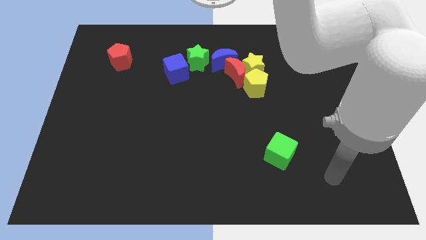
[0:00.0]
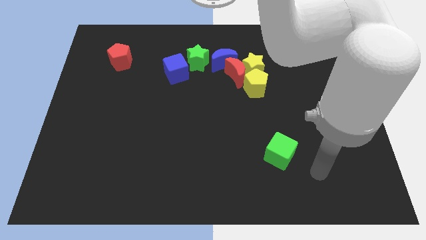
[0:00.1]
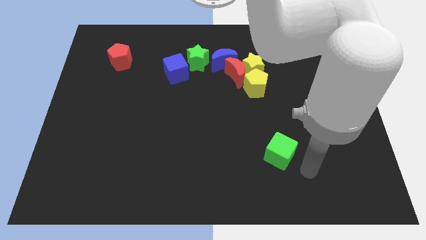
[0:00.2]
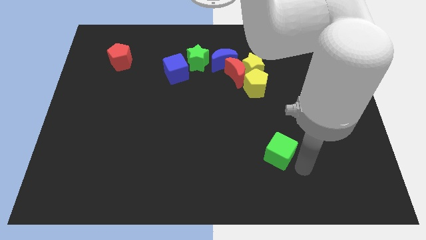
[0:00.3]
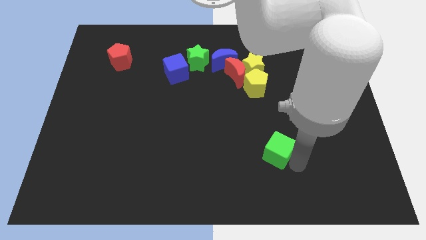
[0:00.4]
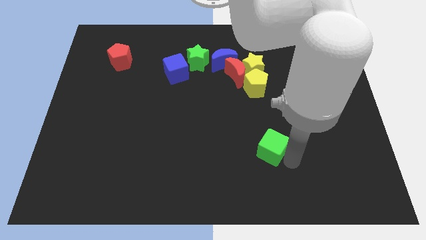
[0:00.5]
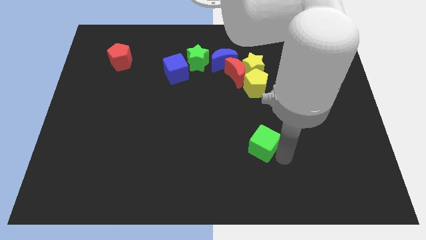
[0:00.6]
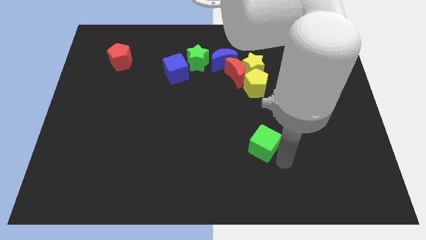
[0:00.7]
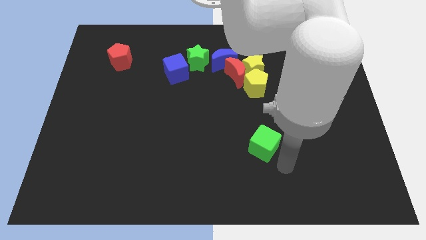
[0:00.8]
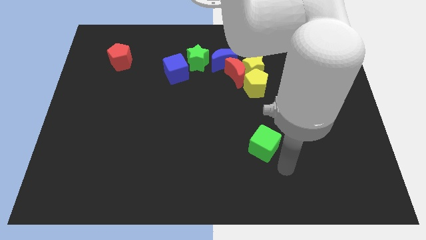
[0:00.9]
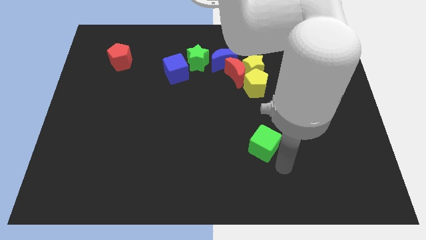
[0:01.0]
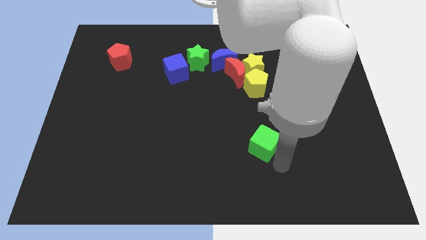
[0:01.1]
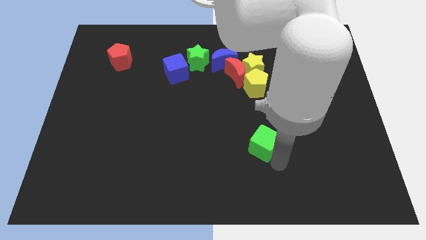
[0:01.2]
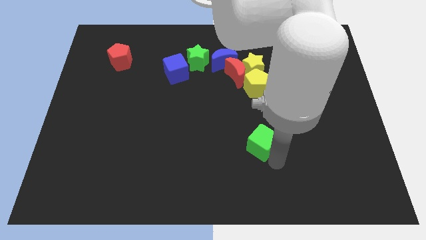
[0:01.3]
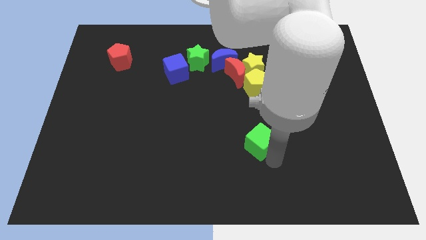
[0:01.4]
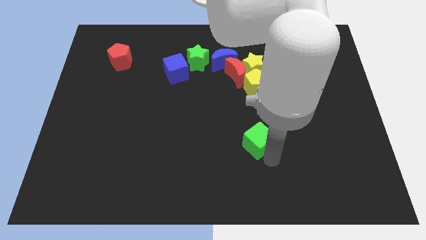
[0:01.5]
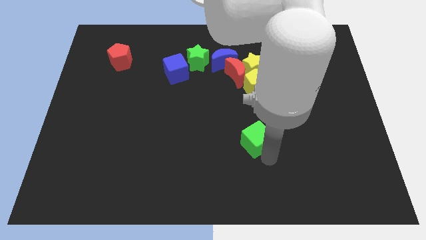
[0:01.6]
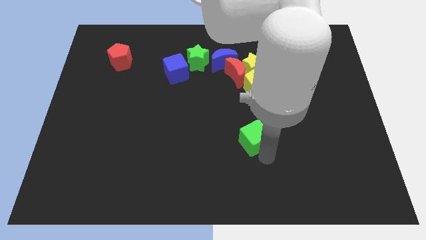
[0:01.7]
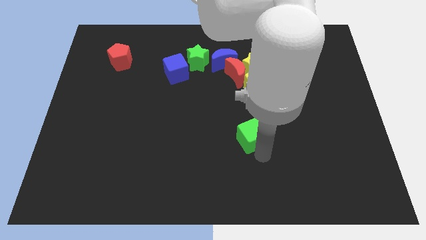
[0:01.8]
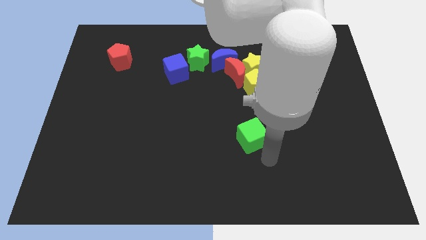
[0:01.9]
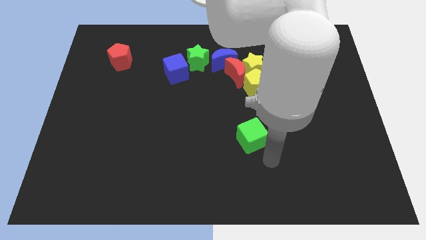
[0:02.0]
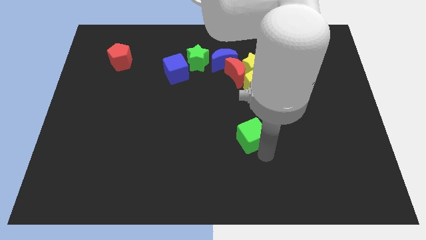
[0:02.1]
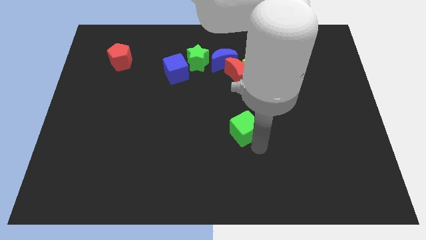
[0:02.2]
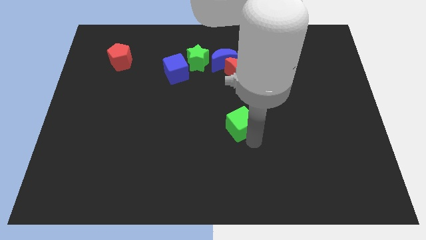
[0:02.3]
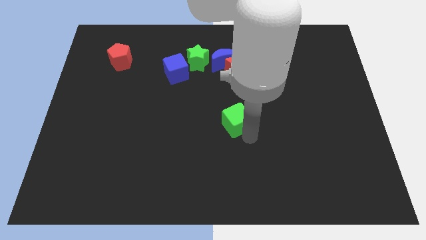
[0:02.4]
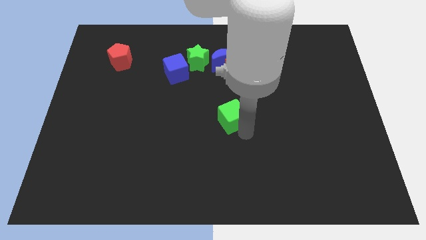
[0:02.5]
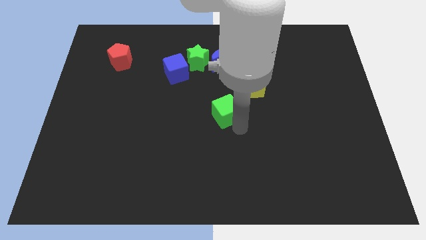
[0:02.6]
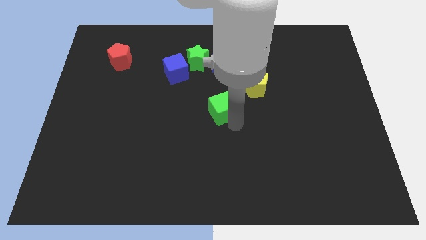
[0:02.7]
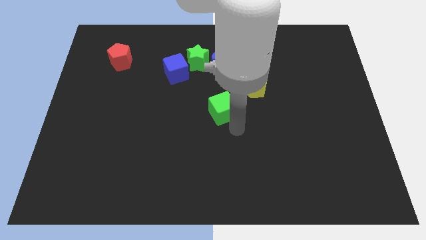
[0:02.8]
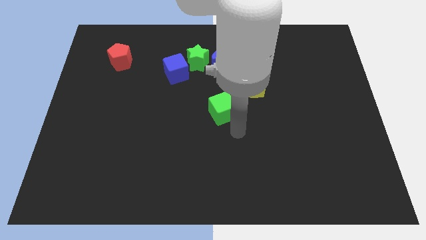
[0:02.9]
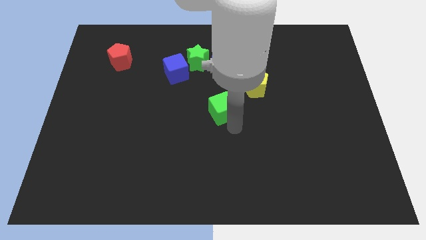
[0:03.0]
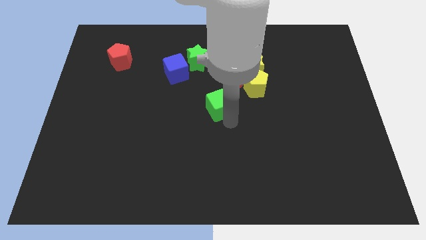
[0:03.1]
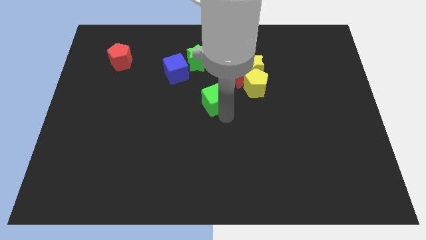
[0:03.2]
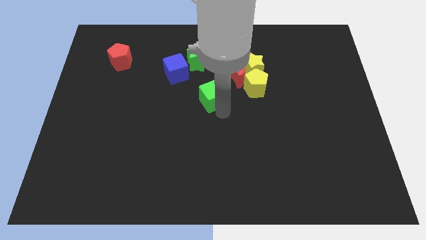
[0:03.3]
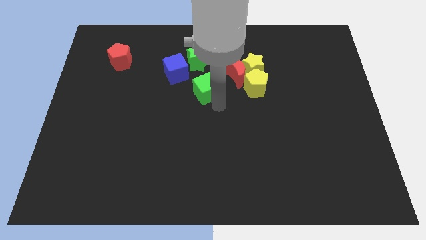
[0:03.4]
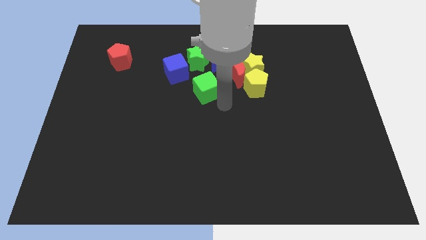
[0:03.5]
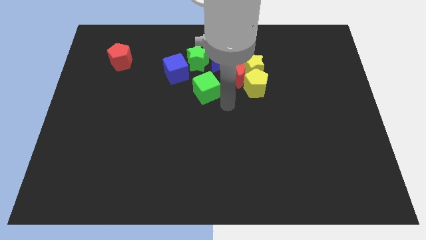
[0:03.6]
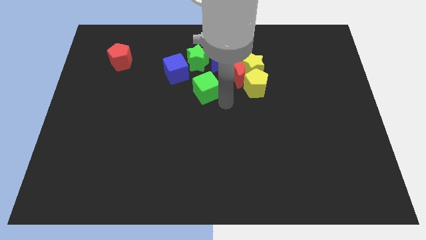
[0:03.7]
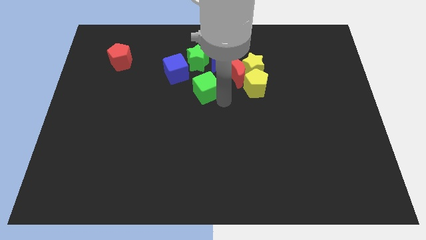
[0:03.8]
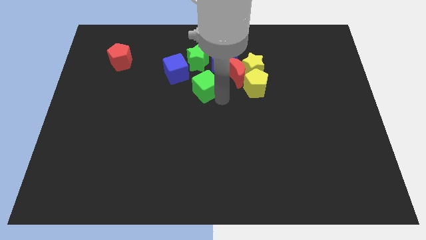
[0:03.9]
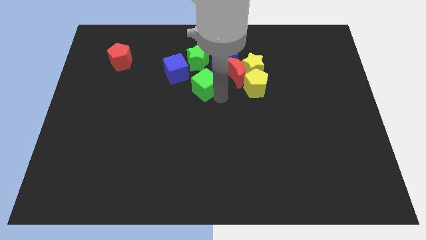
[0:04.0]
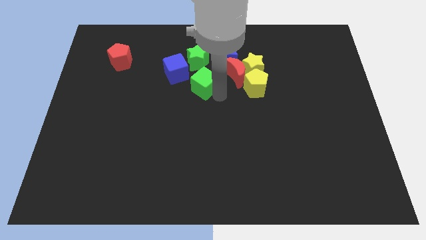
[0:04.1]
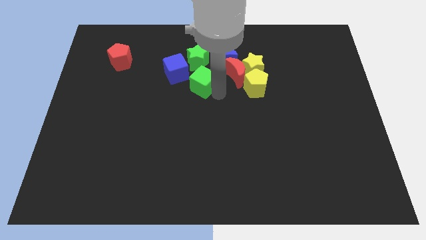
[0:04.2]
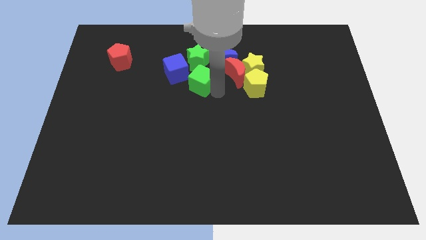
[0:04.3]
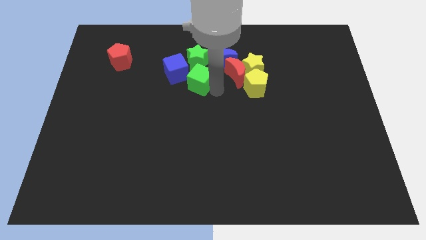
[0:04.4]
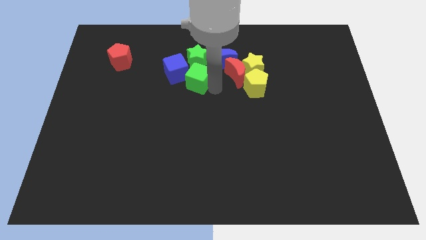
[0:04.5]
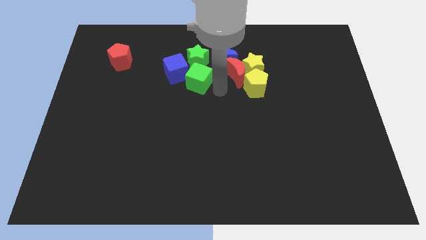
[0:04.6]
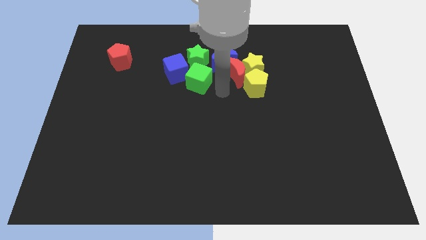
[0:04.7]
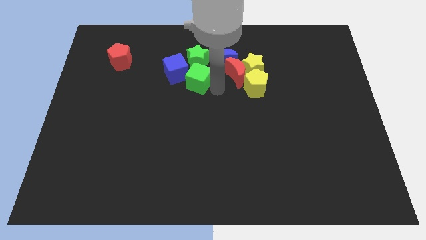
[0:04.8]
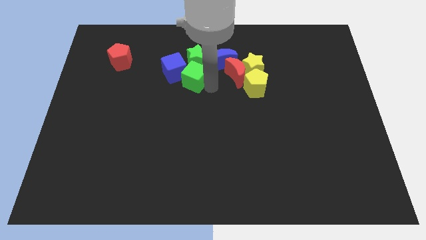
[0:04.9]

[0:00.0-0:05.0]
put the green cube close to the blue cube

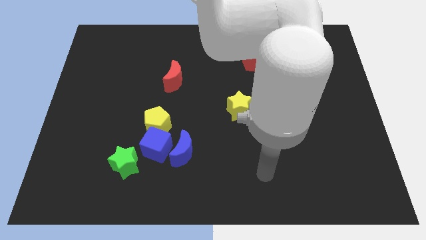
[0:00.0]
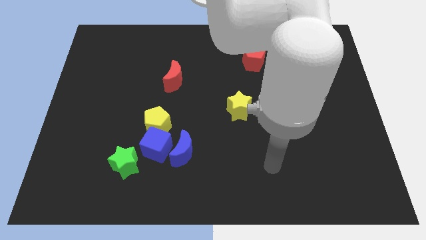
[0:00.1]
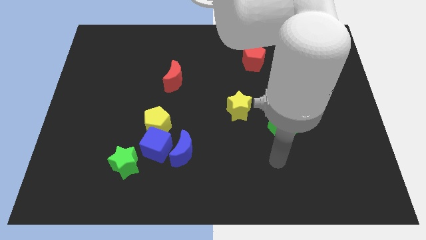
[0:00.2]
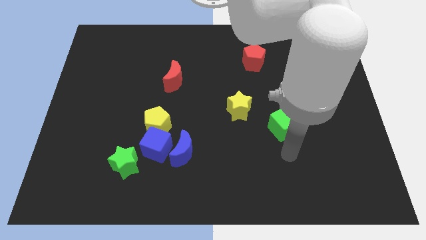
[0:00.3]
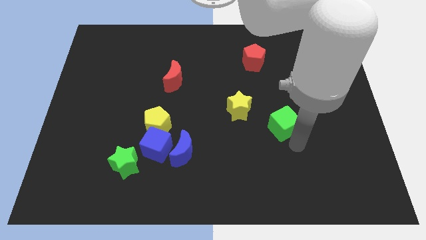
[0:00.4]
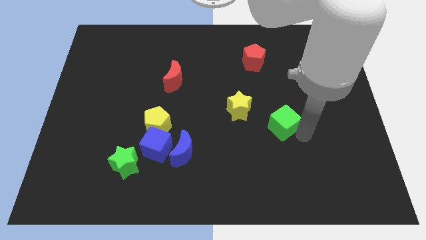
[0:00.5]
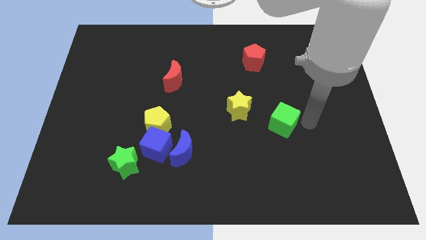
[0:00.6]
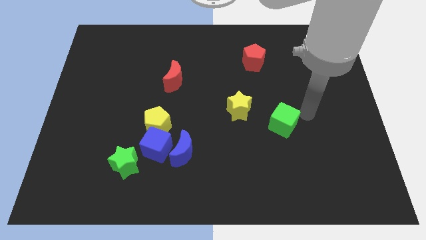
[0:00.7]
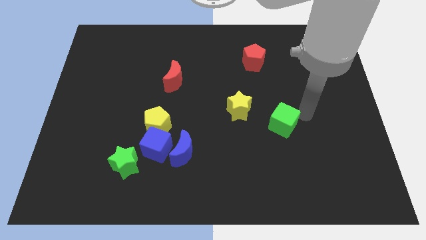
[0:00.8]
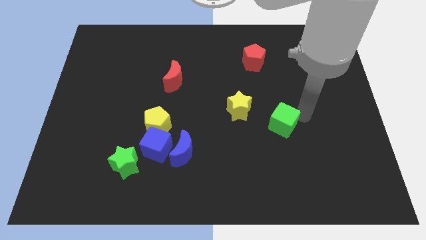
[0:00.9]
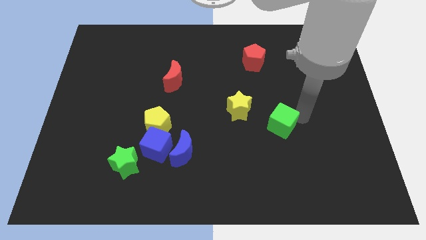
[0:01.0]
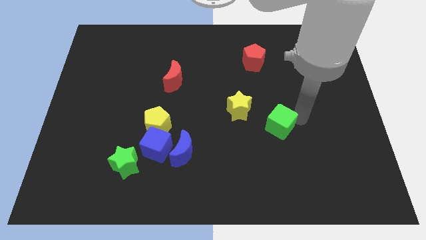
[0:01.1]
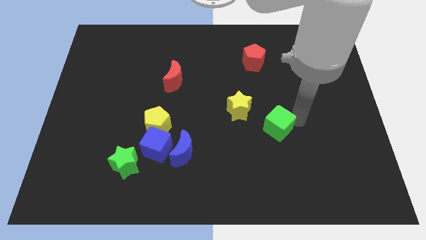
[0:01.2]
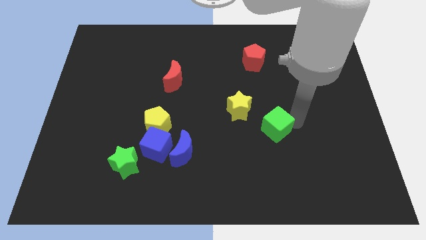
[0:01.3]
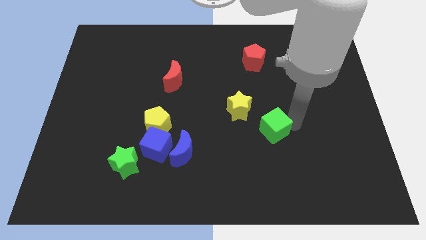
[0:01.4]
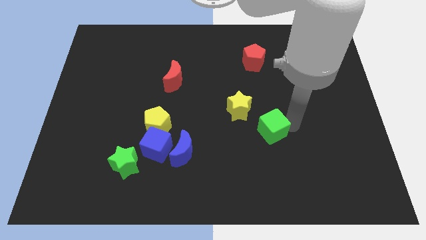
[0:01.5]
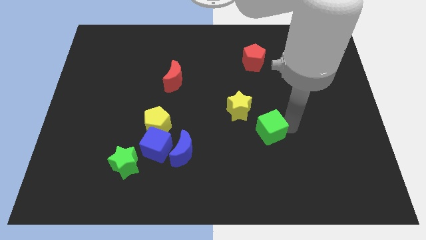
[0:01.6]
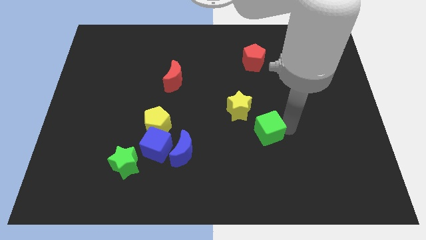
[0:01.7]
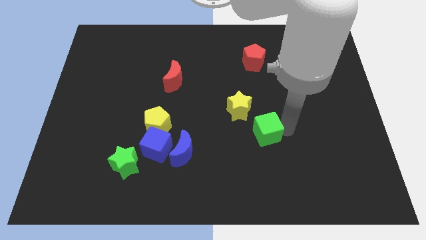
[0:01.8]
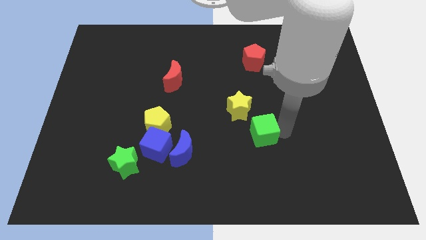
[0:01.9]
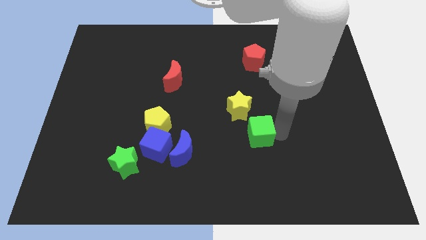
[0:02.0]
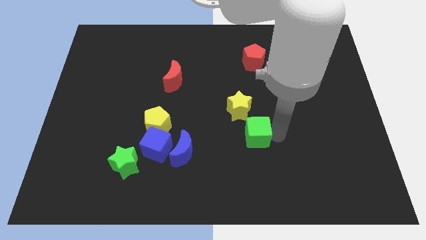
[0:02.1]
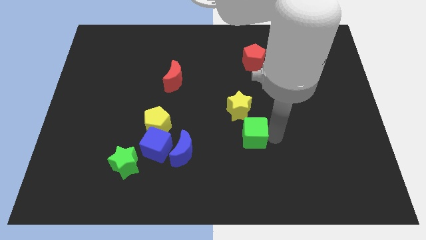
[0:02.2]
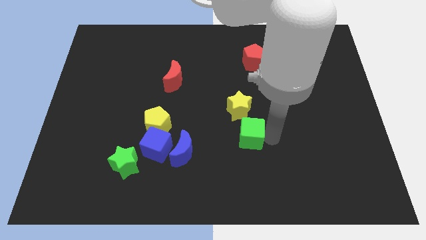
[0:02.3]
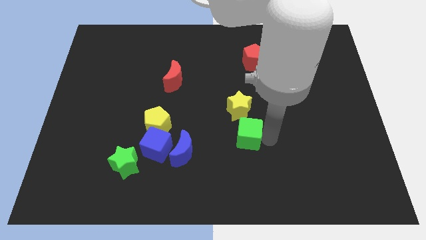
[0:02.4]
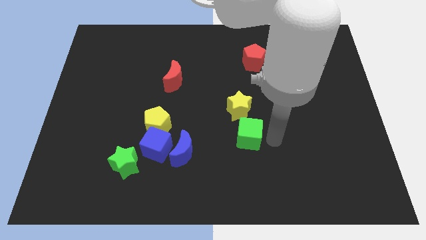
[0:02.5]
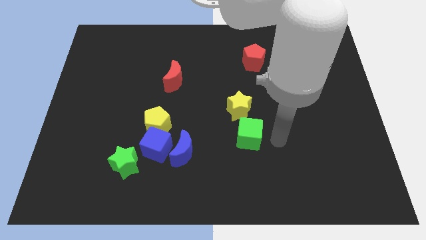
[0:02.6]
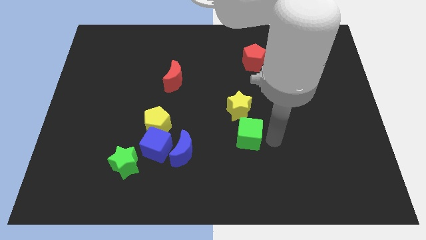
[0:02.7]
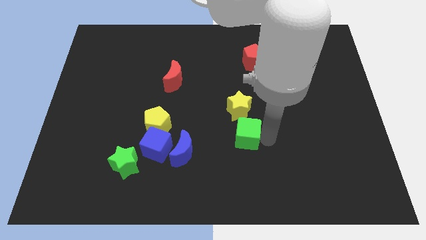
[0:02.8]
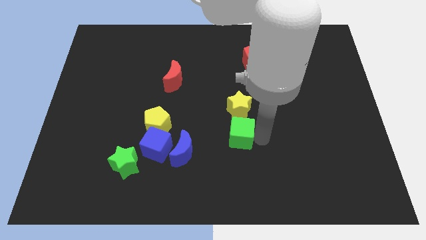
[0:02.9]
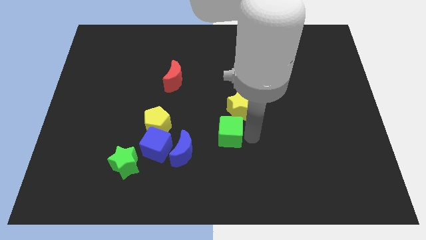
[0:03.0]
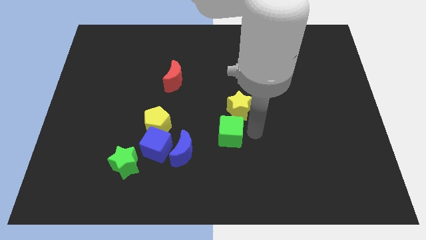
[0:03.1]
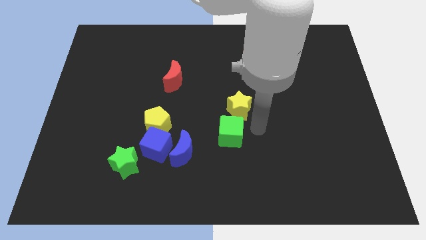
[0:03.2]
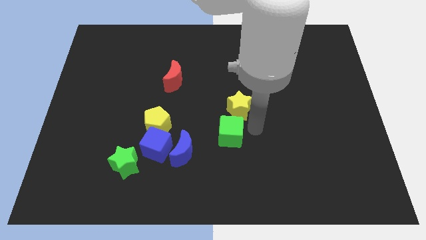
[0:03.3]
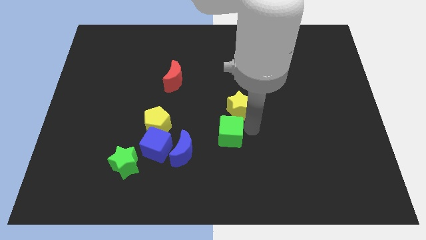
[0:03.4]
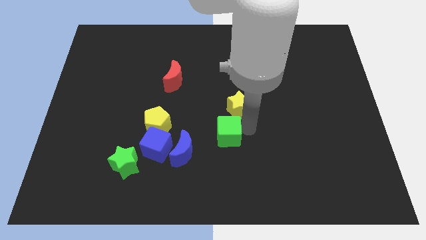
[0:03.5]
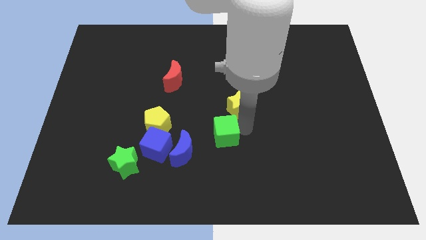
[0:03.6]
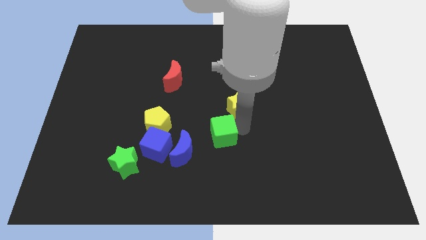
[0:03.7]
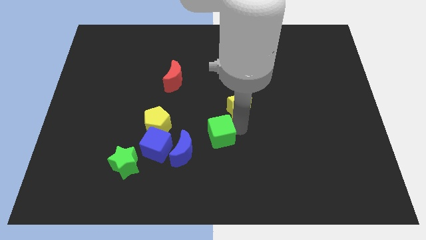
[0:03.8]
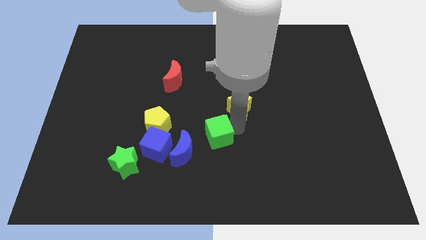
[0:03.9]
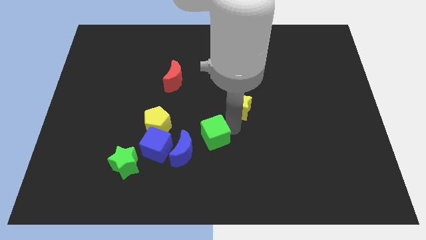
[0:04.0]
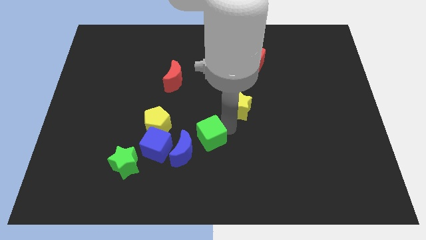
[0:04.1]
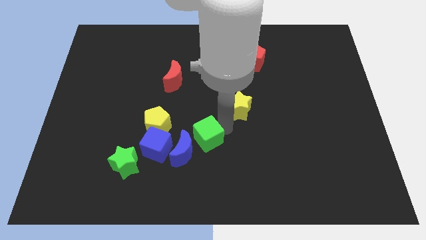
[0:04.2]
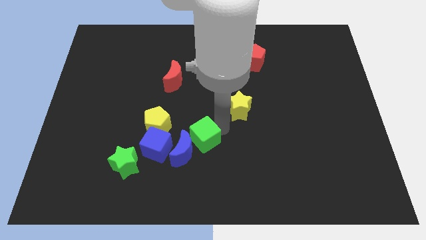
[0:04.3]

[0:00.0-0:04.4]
move the green cube next to the blue moon
